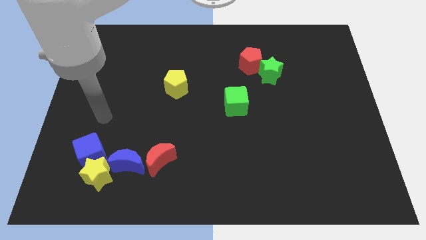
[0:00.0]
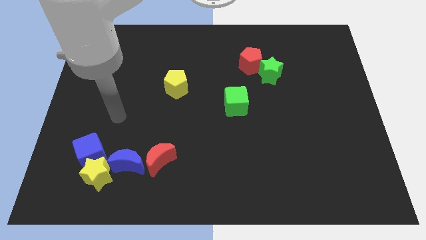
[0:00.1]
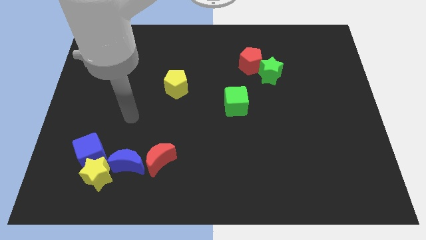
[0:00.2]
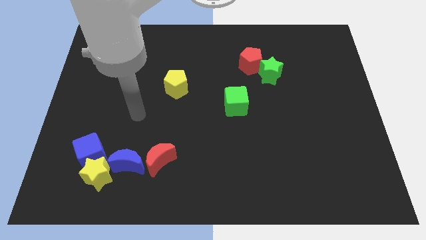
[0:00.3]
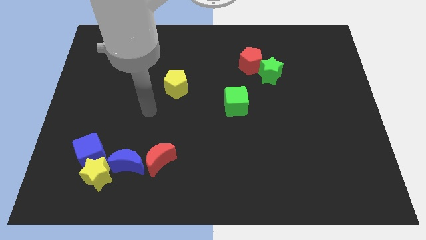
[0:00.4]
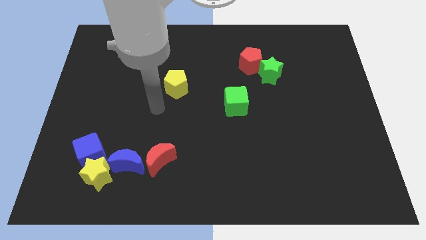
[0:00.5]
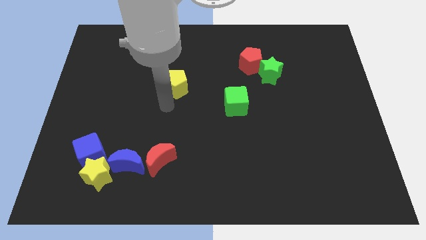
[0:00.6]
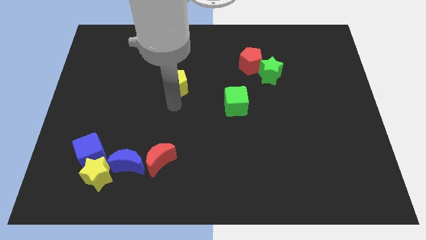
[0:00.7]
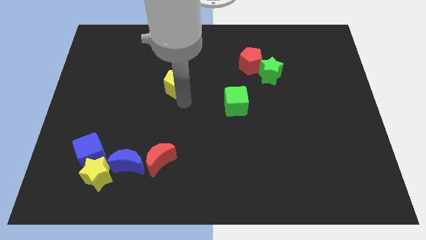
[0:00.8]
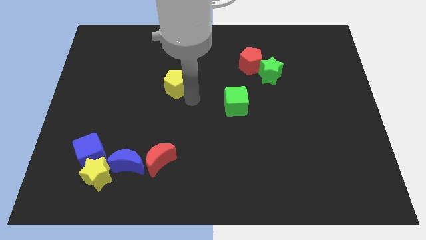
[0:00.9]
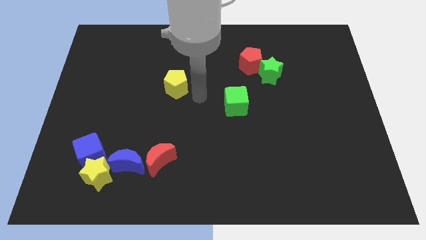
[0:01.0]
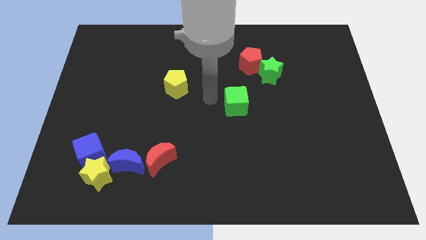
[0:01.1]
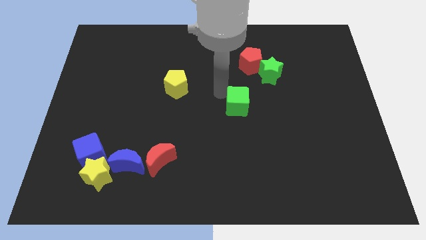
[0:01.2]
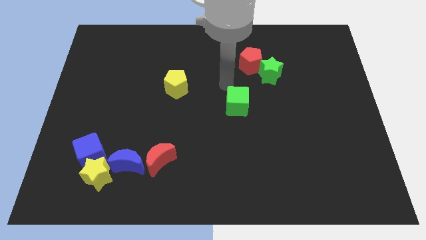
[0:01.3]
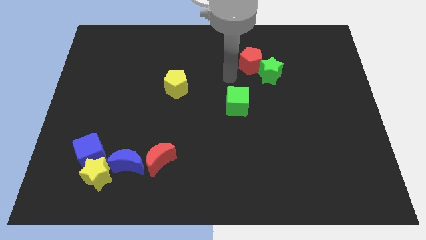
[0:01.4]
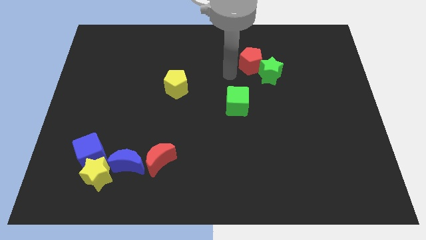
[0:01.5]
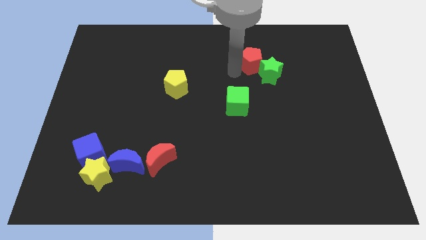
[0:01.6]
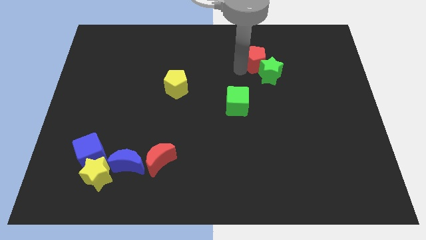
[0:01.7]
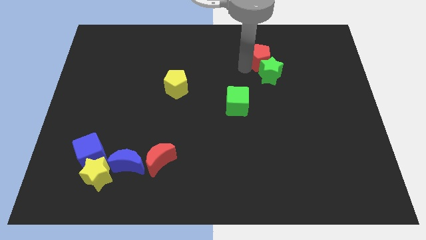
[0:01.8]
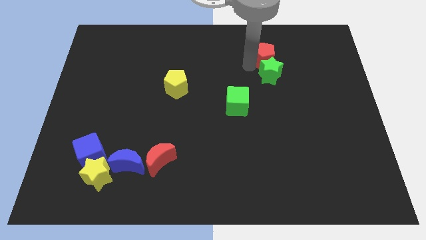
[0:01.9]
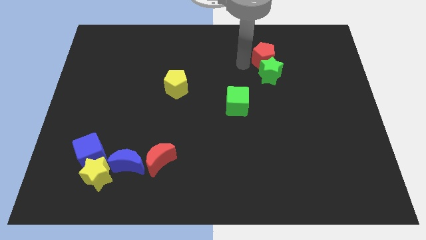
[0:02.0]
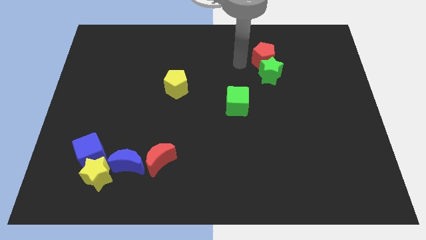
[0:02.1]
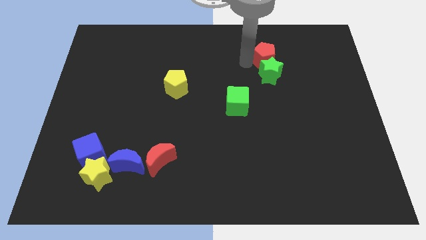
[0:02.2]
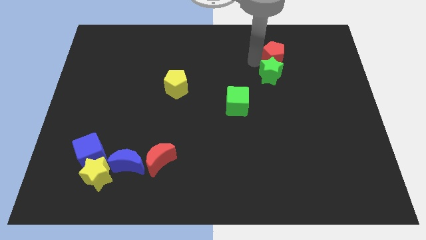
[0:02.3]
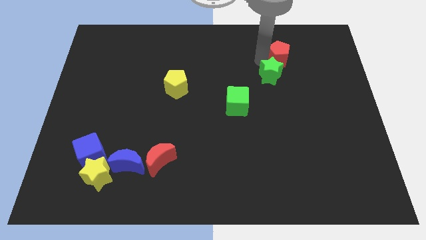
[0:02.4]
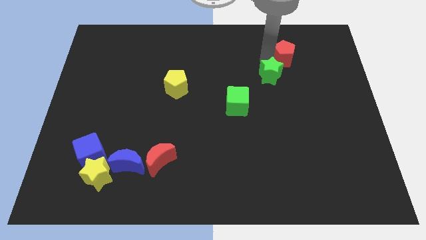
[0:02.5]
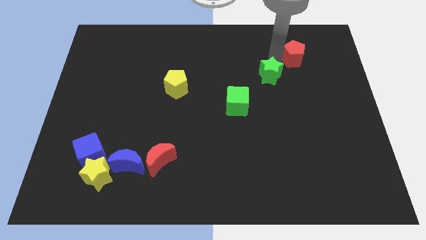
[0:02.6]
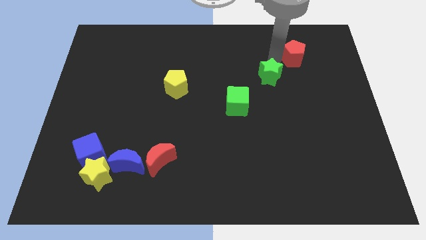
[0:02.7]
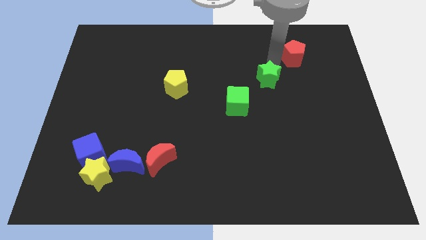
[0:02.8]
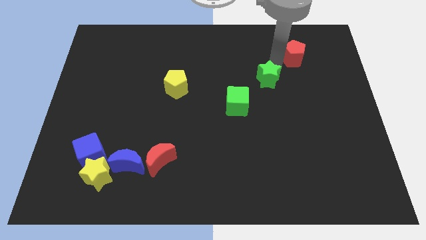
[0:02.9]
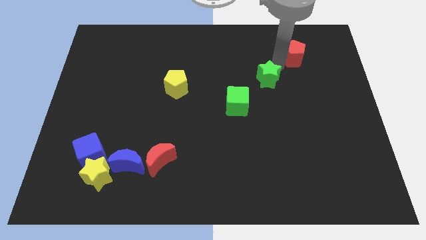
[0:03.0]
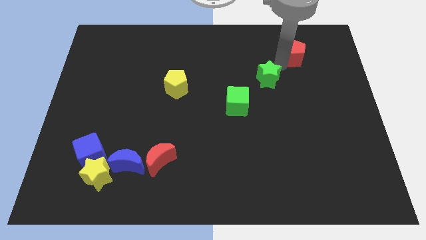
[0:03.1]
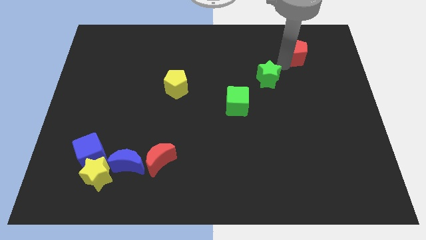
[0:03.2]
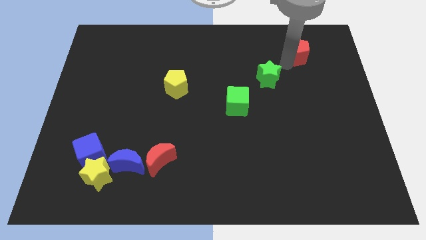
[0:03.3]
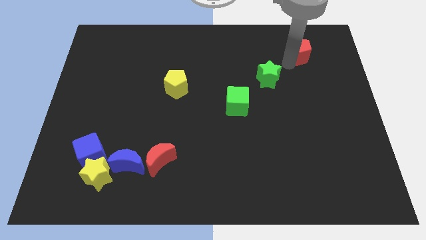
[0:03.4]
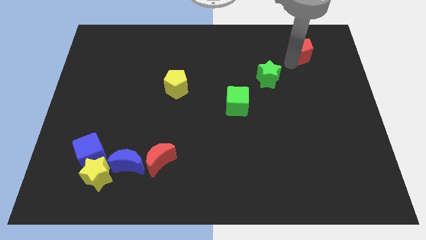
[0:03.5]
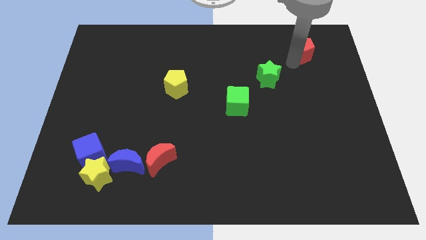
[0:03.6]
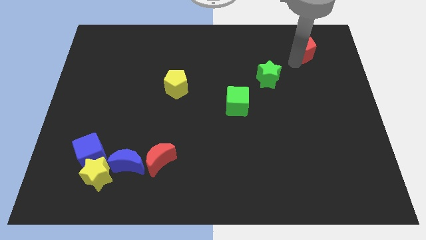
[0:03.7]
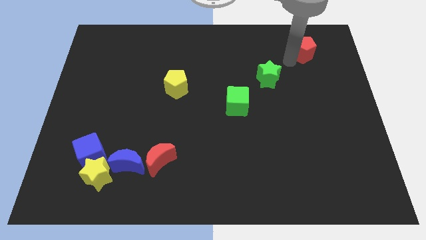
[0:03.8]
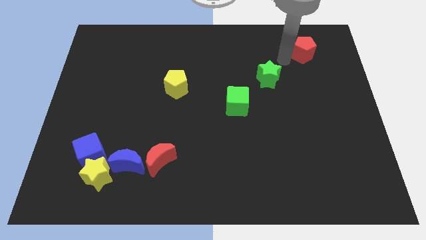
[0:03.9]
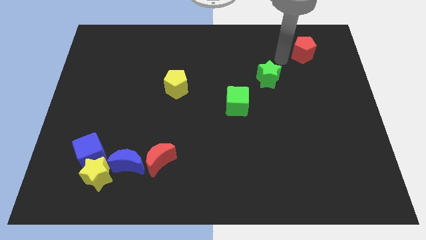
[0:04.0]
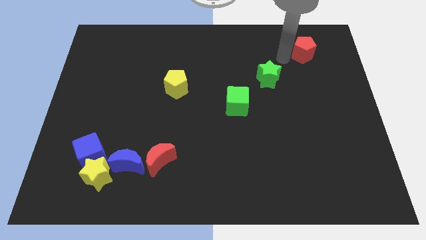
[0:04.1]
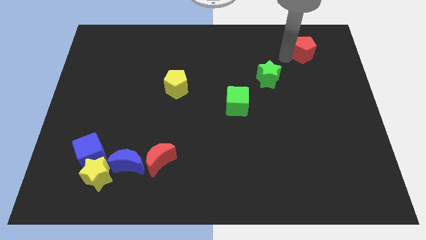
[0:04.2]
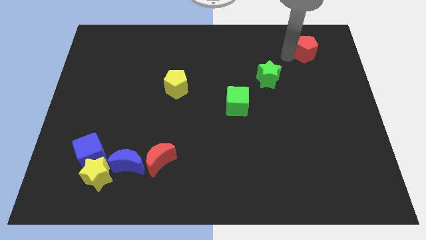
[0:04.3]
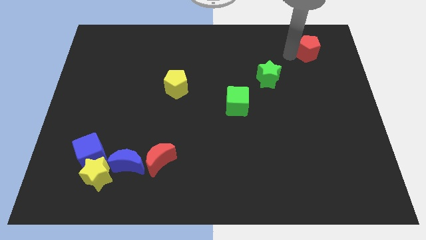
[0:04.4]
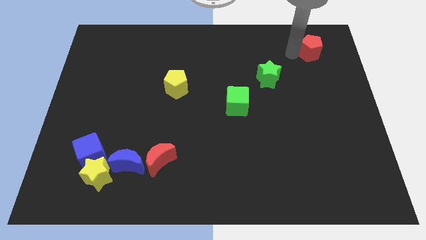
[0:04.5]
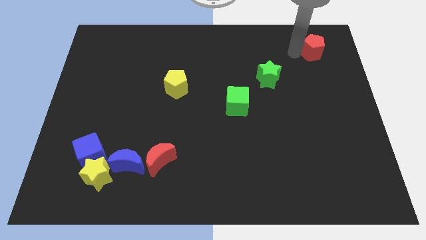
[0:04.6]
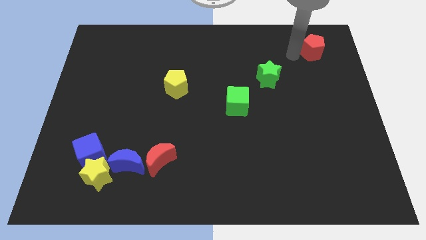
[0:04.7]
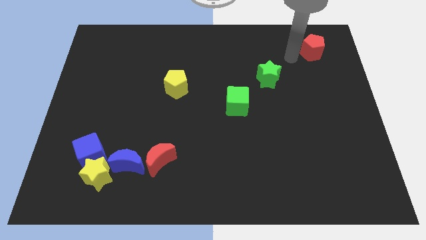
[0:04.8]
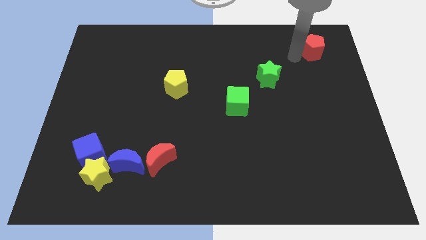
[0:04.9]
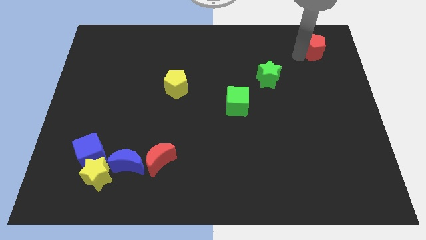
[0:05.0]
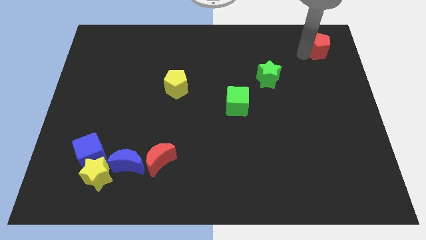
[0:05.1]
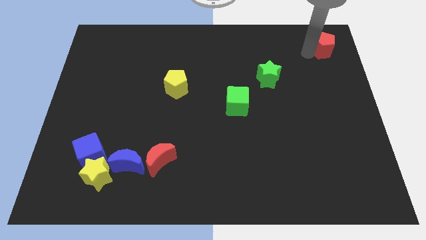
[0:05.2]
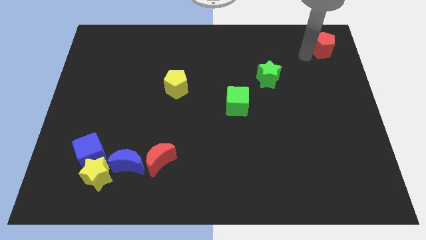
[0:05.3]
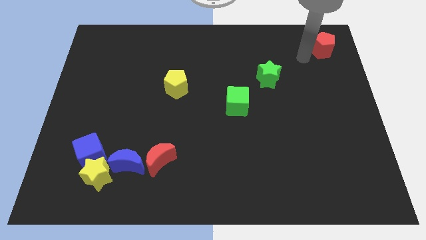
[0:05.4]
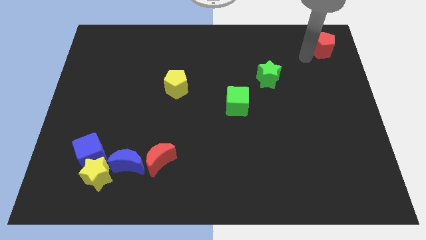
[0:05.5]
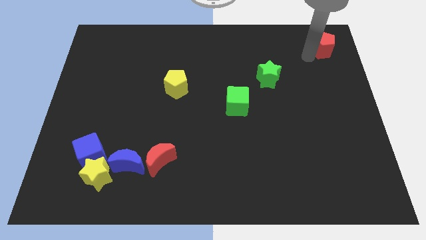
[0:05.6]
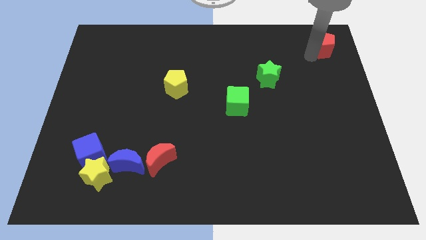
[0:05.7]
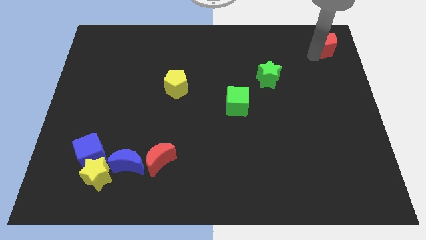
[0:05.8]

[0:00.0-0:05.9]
push the red pentagon to the upper right corner

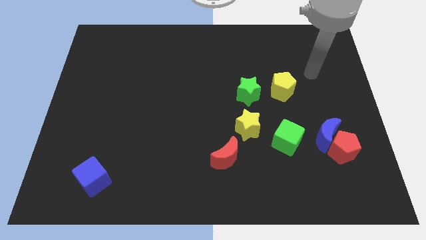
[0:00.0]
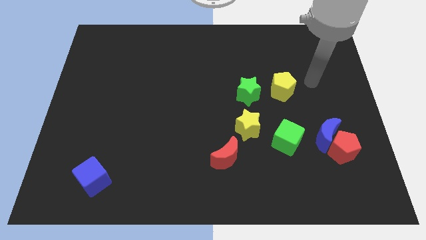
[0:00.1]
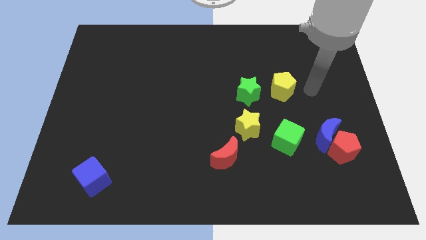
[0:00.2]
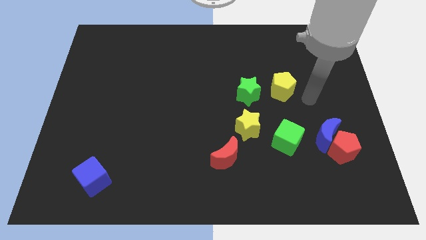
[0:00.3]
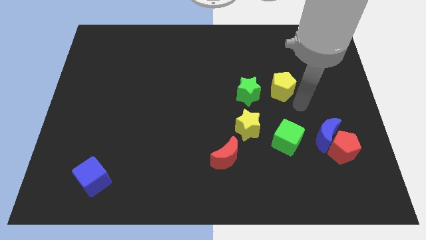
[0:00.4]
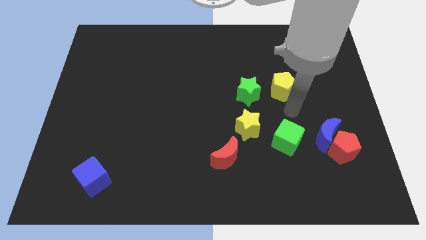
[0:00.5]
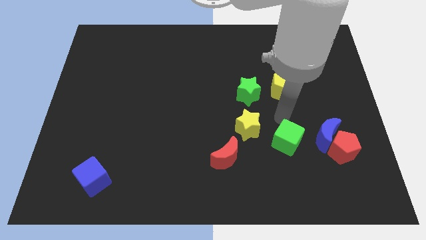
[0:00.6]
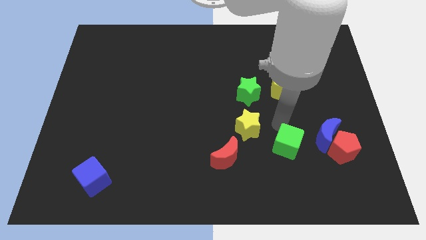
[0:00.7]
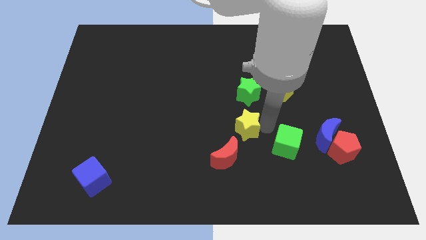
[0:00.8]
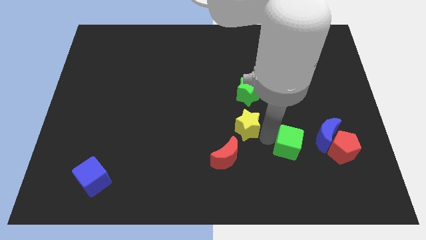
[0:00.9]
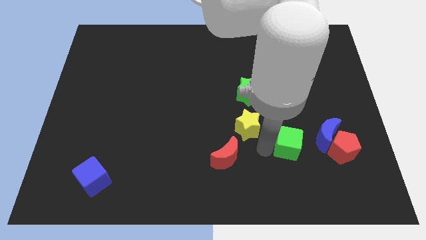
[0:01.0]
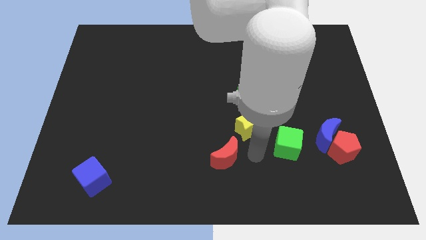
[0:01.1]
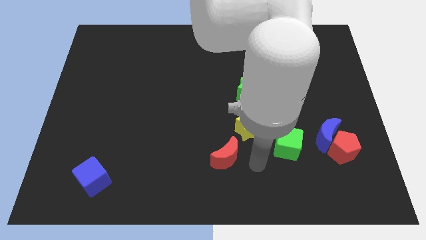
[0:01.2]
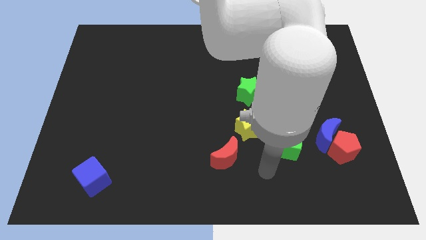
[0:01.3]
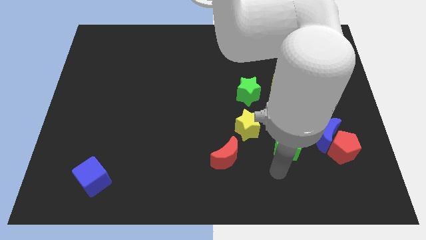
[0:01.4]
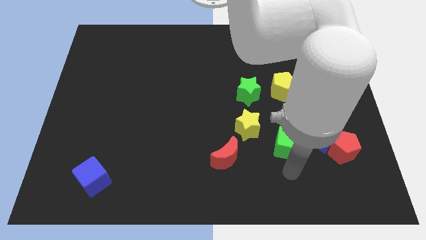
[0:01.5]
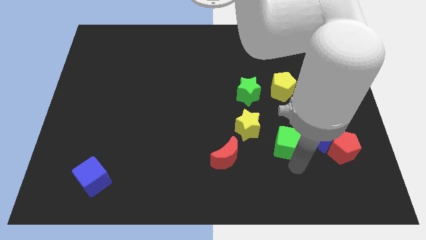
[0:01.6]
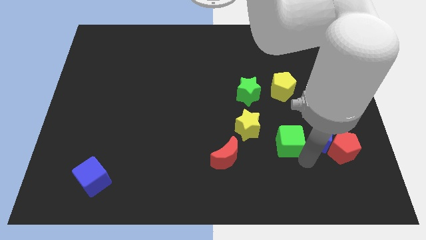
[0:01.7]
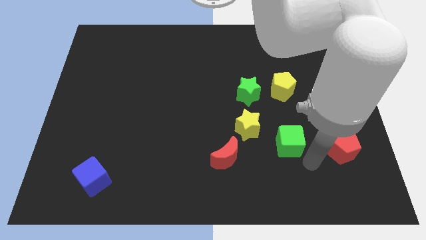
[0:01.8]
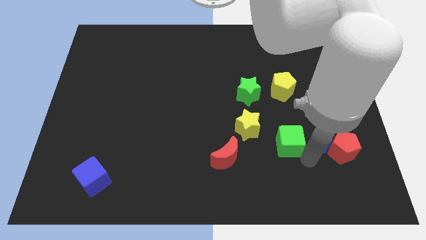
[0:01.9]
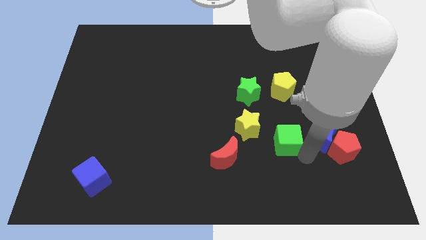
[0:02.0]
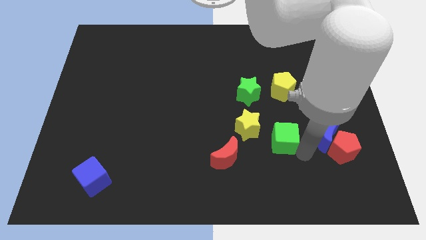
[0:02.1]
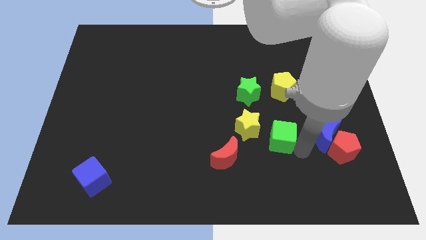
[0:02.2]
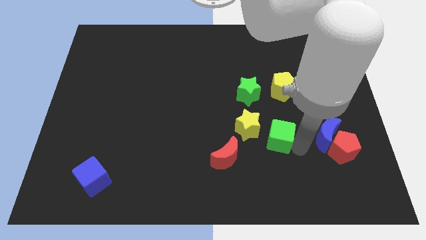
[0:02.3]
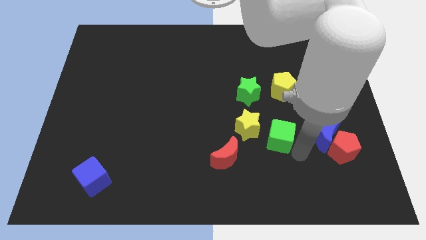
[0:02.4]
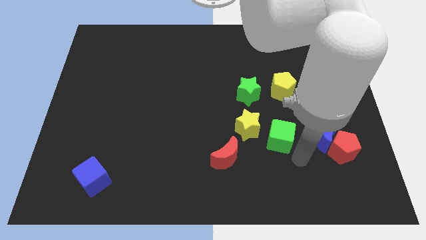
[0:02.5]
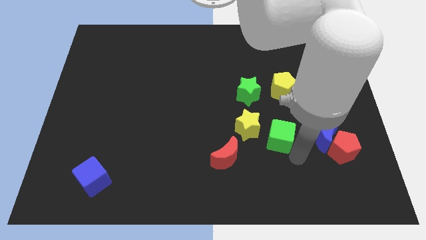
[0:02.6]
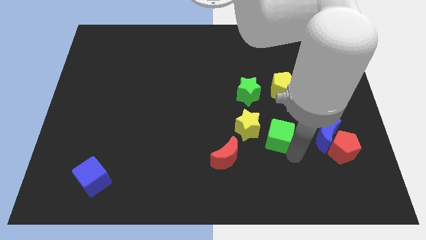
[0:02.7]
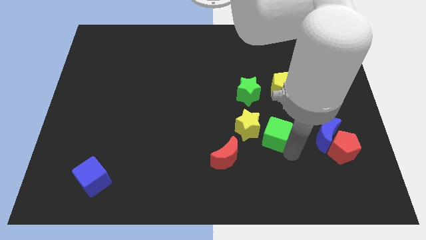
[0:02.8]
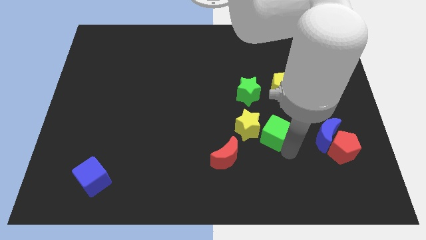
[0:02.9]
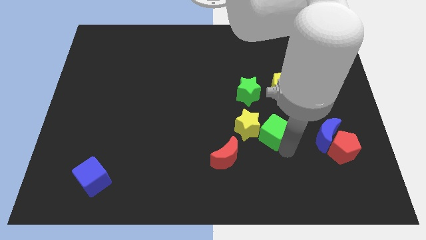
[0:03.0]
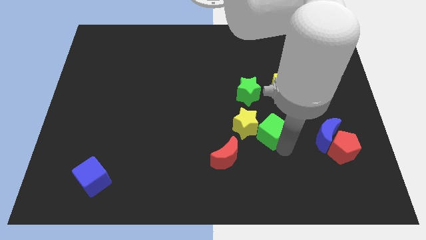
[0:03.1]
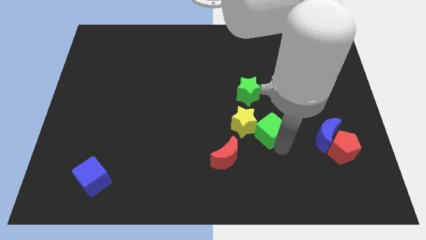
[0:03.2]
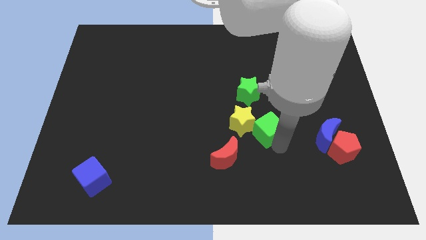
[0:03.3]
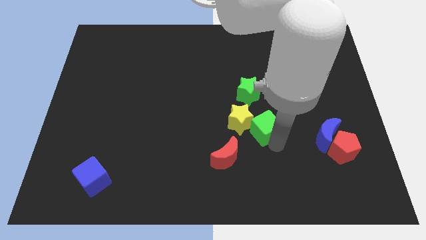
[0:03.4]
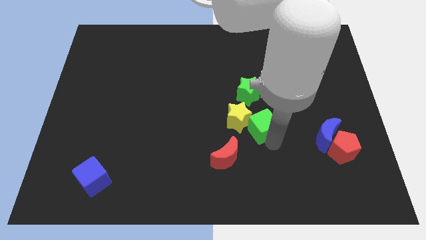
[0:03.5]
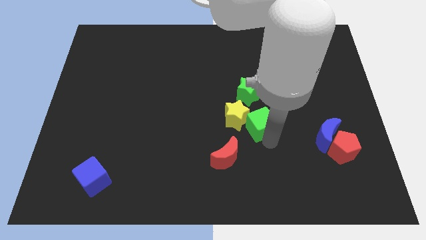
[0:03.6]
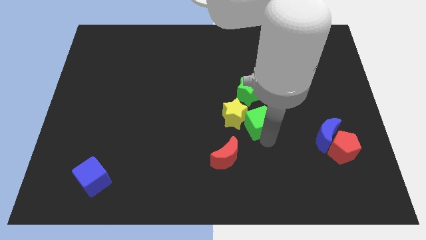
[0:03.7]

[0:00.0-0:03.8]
put the green cube to the middle of the board
